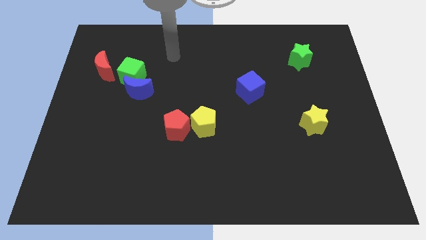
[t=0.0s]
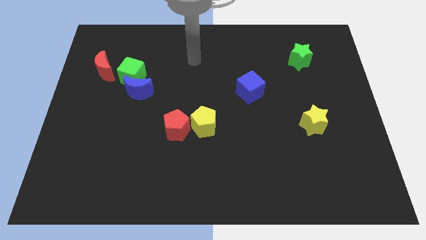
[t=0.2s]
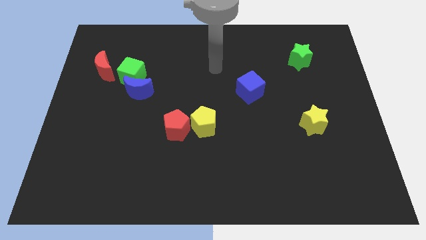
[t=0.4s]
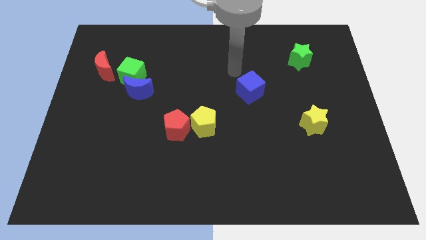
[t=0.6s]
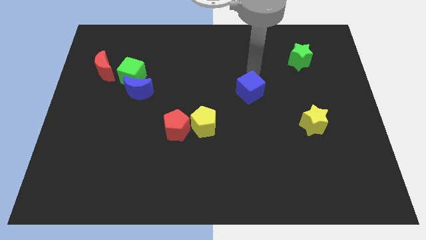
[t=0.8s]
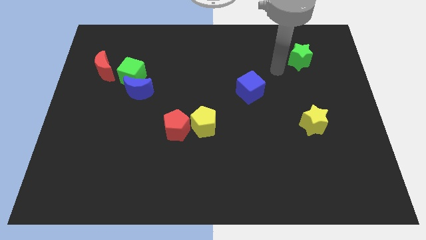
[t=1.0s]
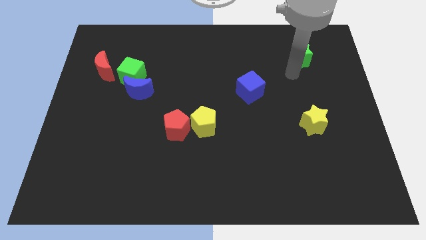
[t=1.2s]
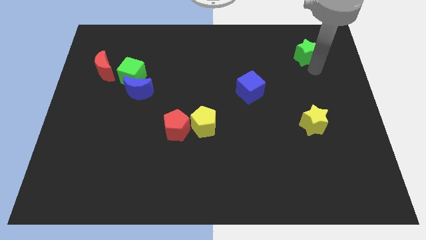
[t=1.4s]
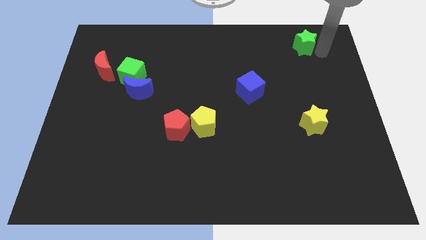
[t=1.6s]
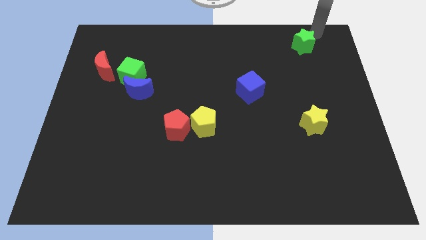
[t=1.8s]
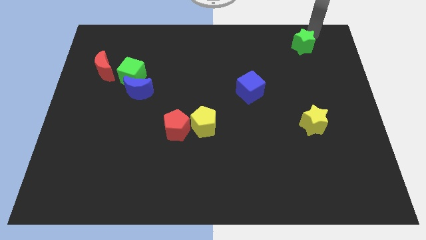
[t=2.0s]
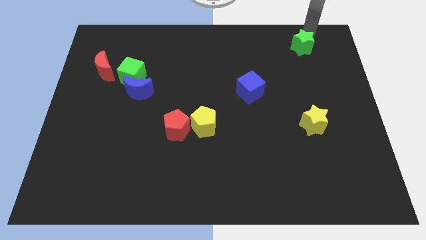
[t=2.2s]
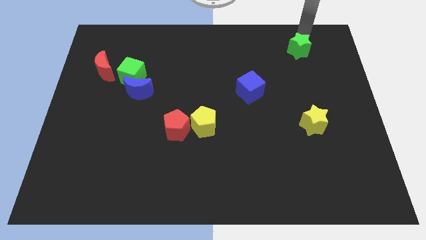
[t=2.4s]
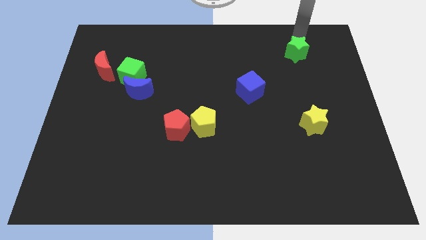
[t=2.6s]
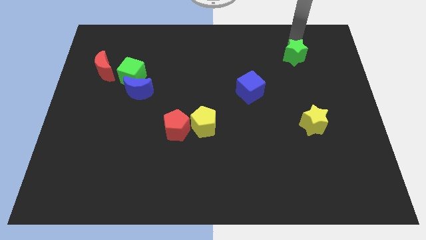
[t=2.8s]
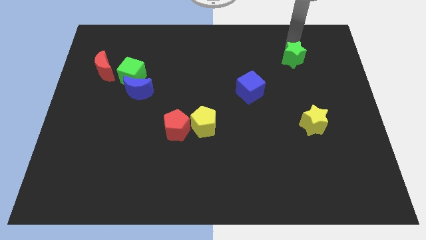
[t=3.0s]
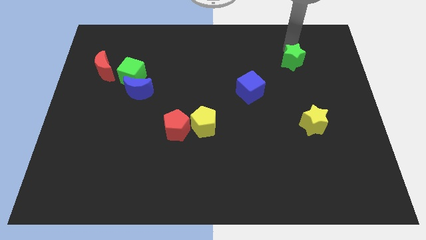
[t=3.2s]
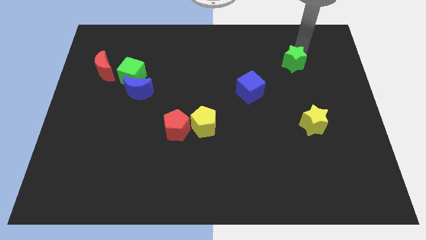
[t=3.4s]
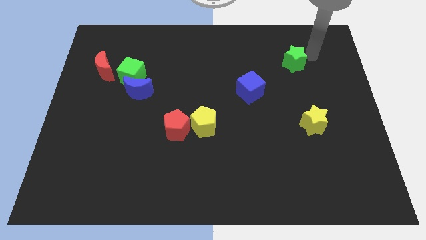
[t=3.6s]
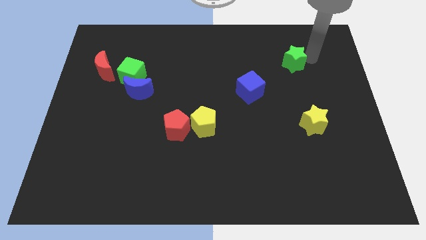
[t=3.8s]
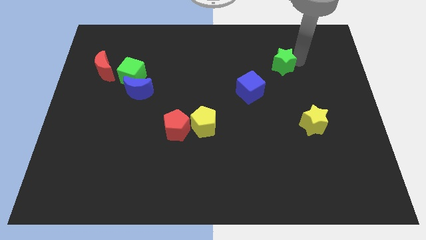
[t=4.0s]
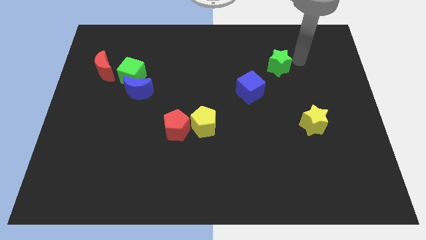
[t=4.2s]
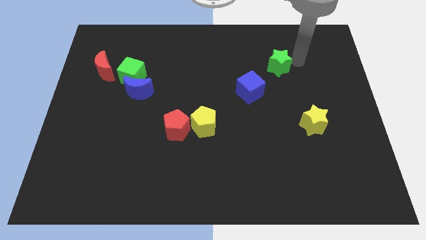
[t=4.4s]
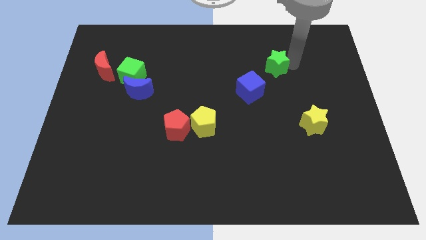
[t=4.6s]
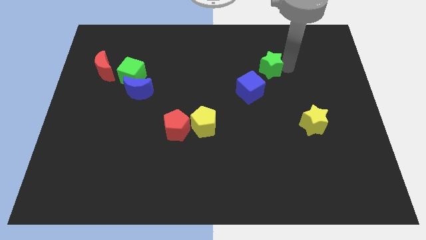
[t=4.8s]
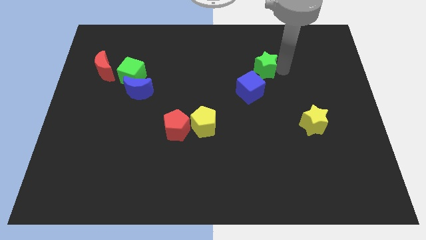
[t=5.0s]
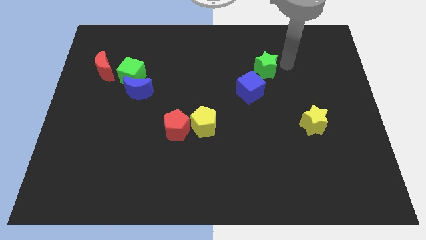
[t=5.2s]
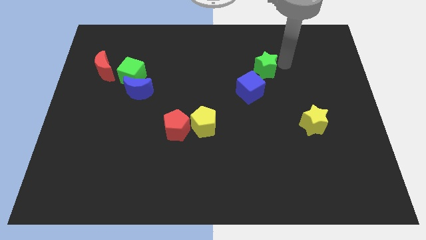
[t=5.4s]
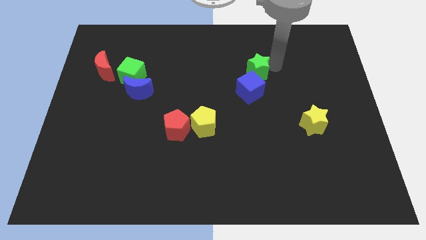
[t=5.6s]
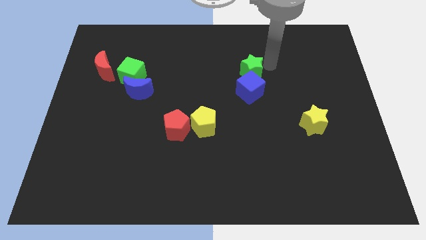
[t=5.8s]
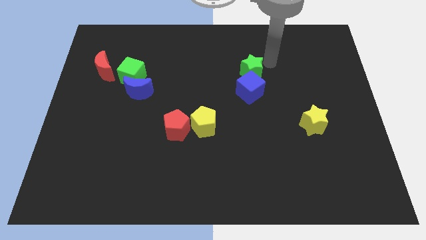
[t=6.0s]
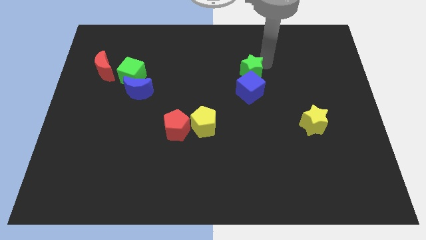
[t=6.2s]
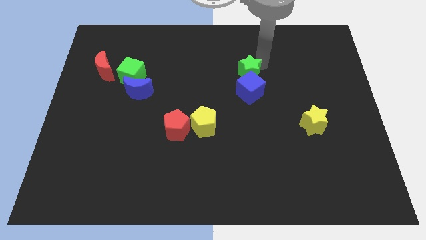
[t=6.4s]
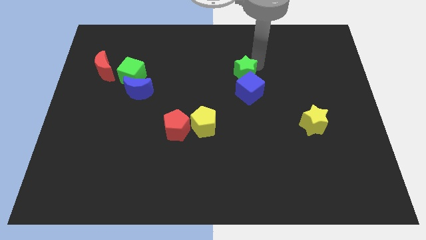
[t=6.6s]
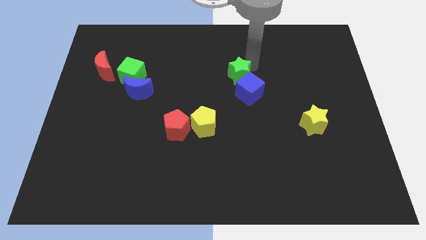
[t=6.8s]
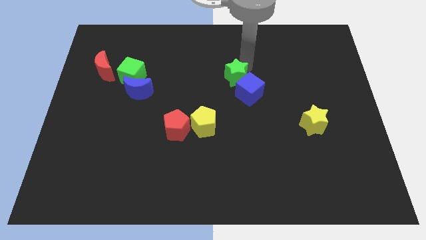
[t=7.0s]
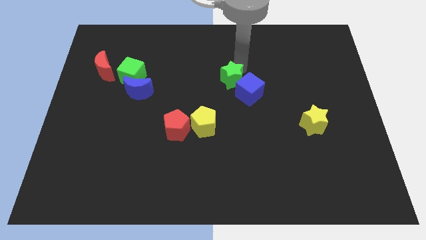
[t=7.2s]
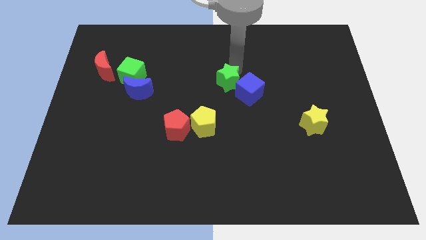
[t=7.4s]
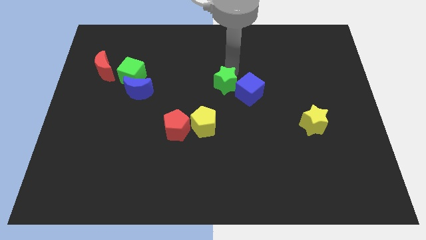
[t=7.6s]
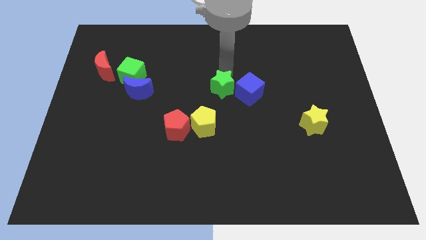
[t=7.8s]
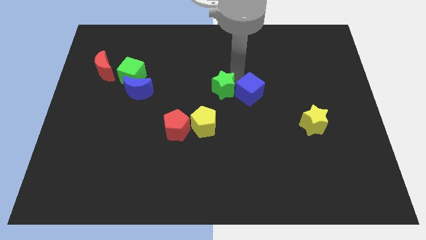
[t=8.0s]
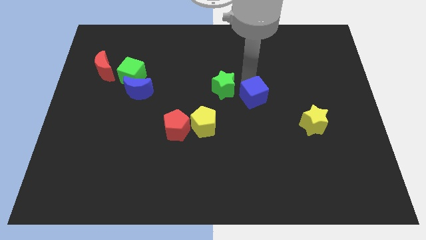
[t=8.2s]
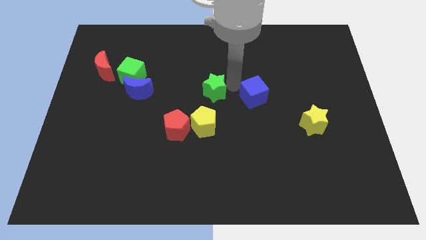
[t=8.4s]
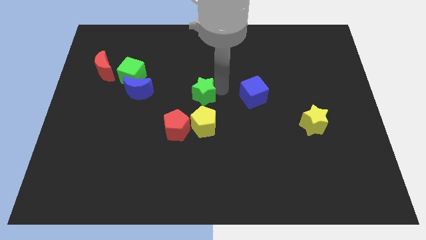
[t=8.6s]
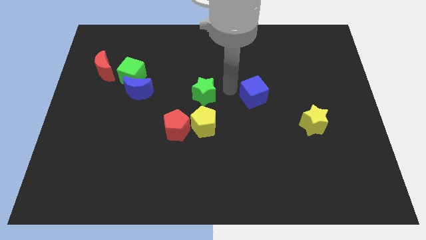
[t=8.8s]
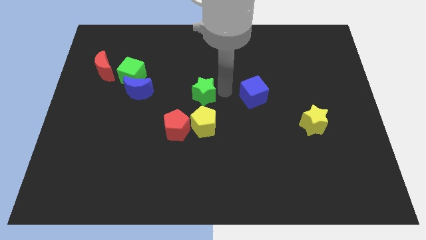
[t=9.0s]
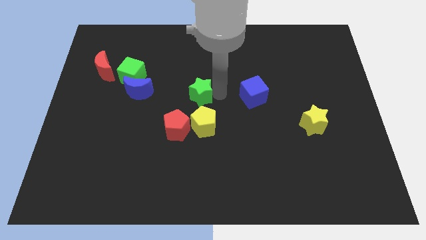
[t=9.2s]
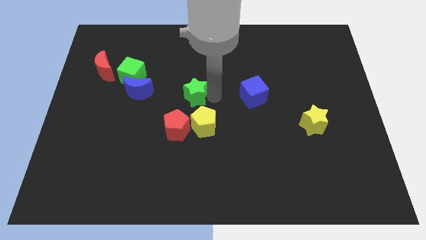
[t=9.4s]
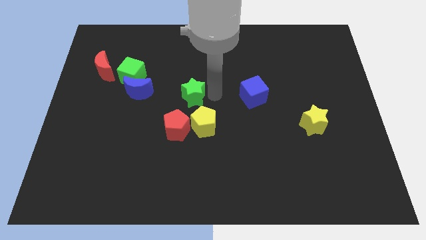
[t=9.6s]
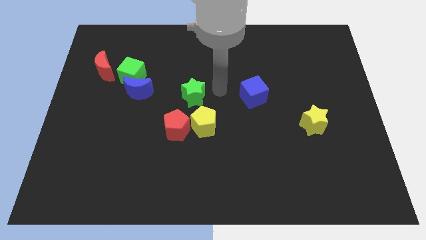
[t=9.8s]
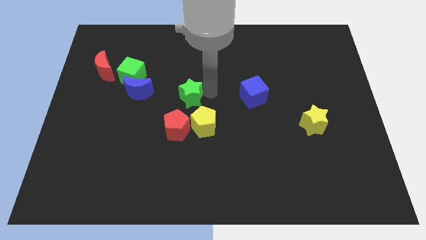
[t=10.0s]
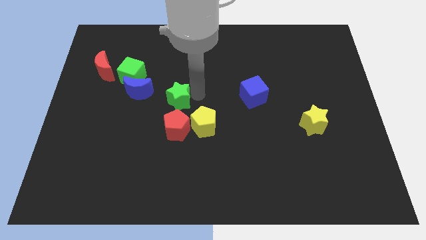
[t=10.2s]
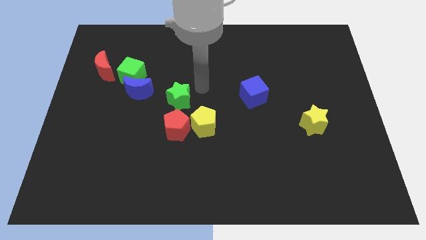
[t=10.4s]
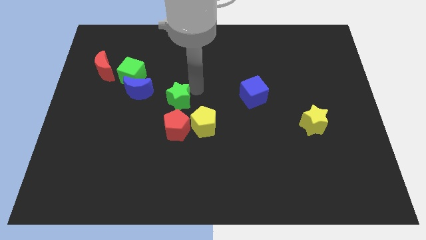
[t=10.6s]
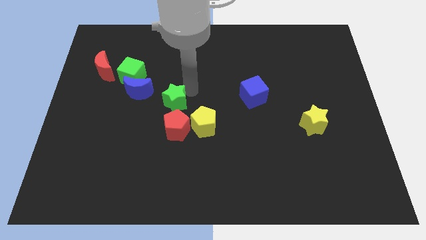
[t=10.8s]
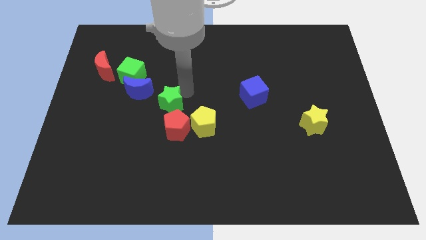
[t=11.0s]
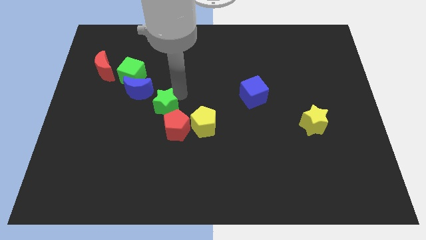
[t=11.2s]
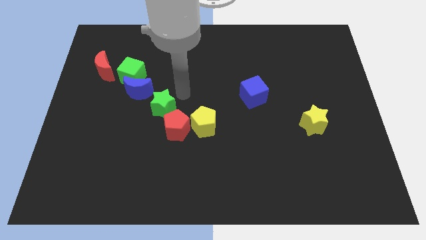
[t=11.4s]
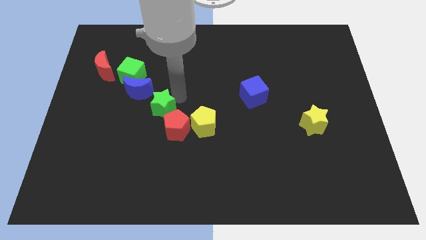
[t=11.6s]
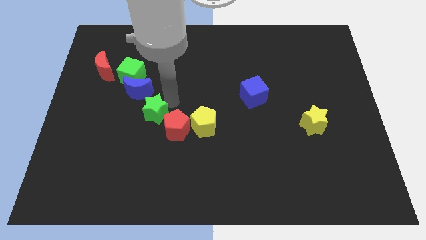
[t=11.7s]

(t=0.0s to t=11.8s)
move the green star left of the red pentagon
